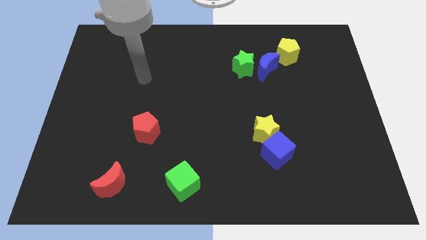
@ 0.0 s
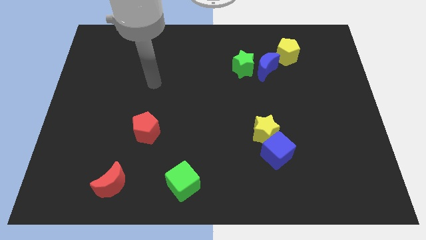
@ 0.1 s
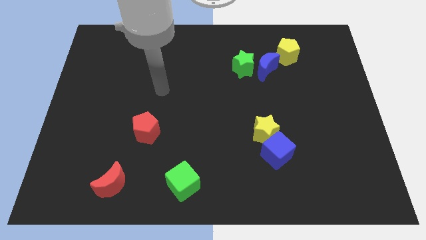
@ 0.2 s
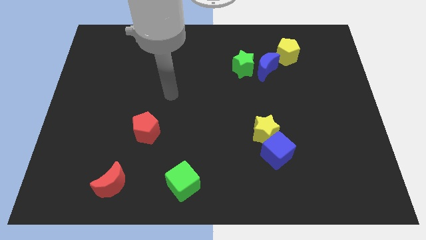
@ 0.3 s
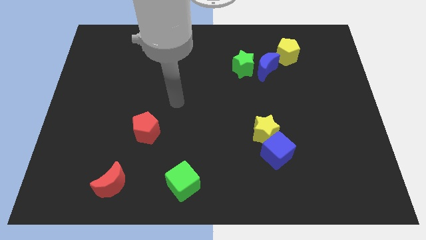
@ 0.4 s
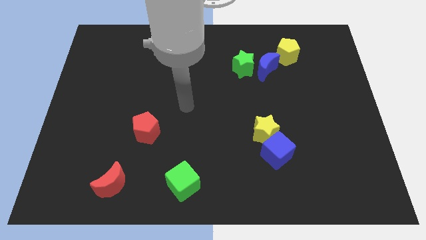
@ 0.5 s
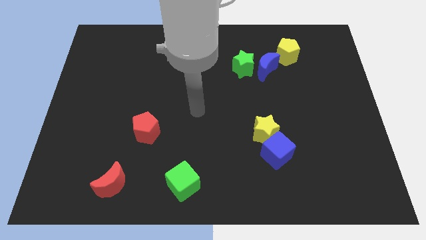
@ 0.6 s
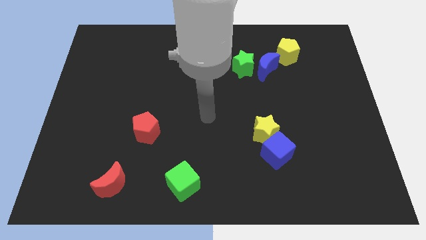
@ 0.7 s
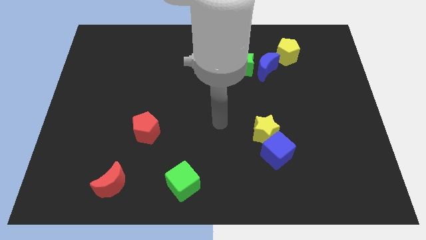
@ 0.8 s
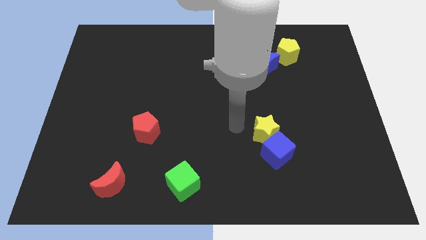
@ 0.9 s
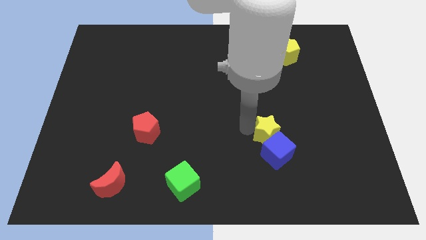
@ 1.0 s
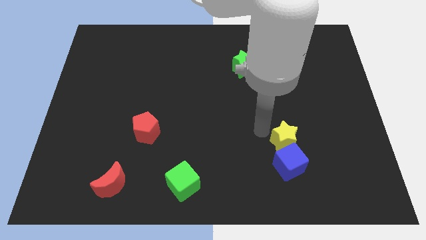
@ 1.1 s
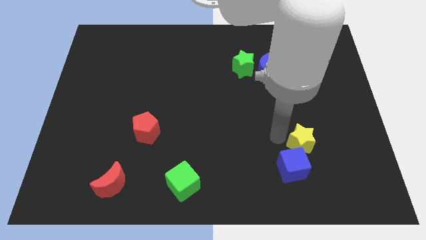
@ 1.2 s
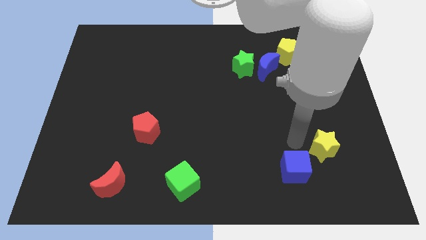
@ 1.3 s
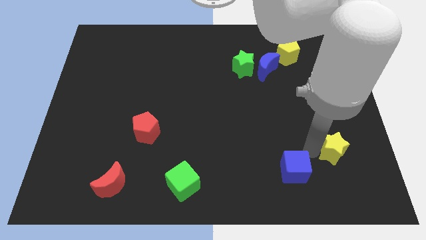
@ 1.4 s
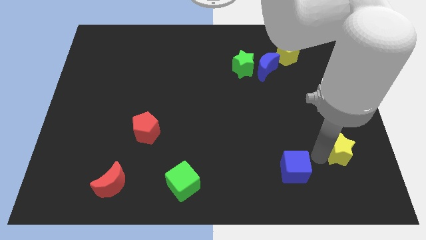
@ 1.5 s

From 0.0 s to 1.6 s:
pull the blue cube apart from the yellow star

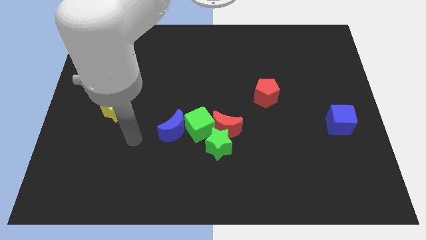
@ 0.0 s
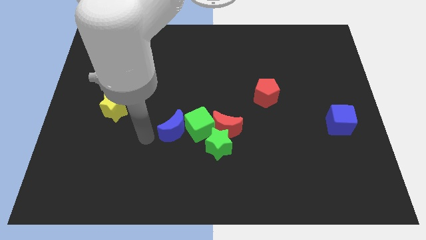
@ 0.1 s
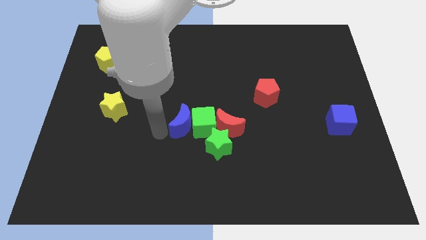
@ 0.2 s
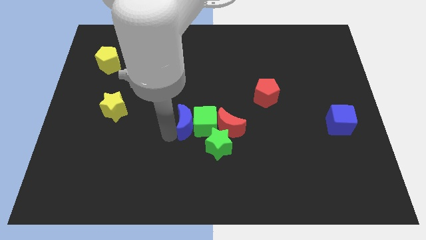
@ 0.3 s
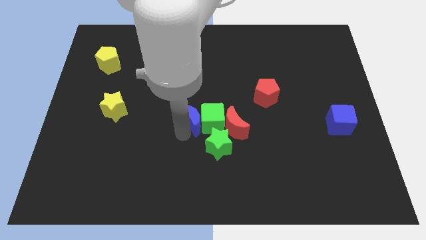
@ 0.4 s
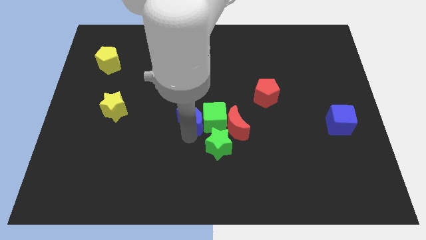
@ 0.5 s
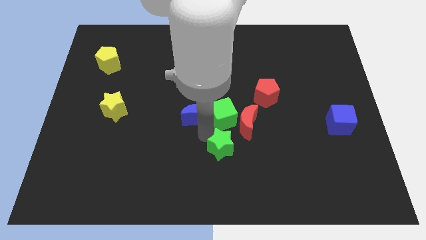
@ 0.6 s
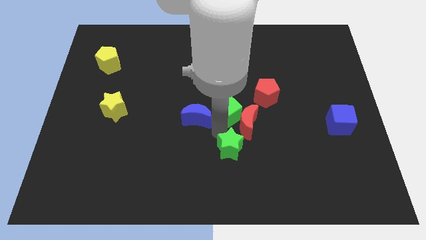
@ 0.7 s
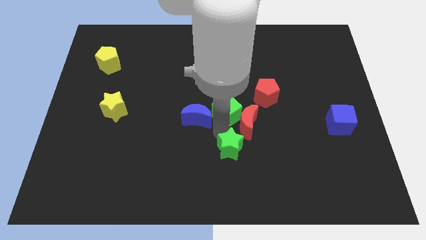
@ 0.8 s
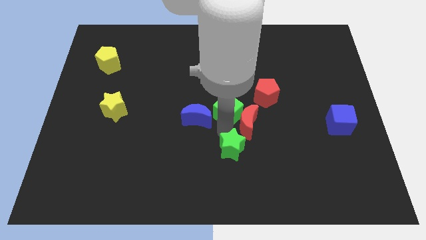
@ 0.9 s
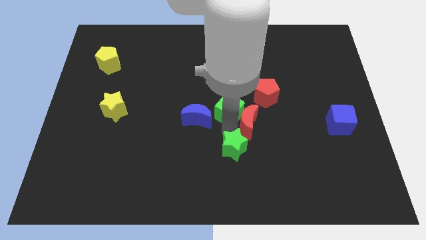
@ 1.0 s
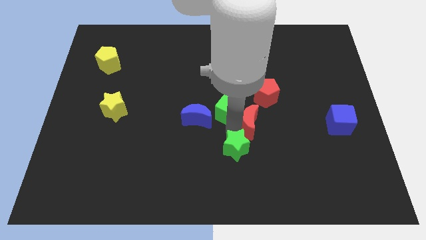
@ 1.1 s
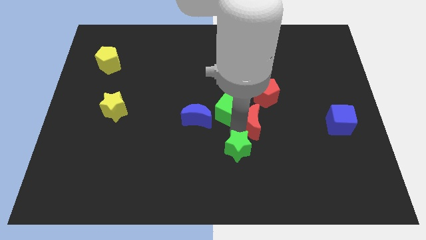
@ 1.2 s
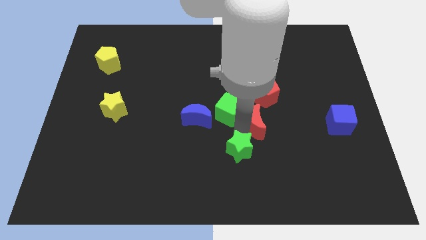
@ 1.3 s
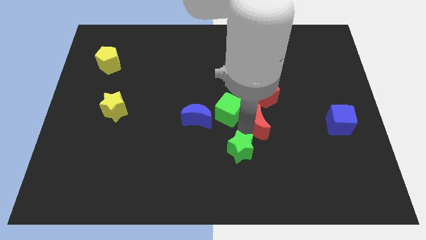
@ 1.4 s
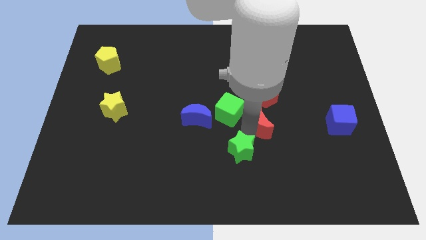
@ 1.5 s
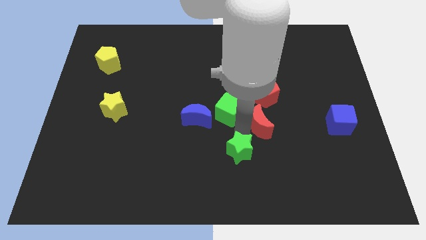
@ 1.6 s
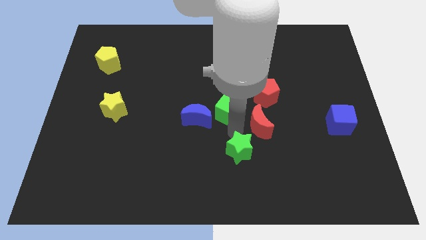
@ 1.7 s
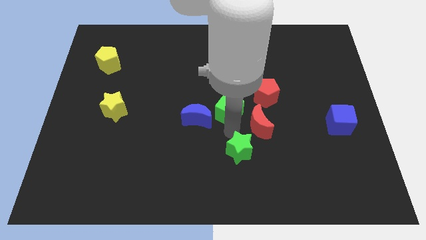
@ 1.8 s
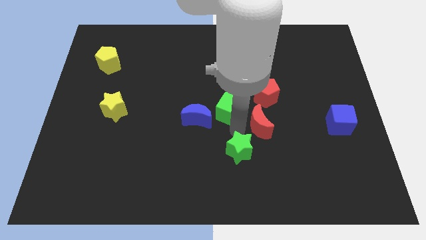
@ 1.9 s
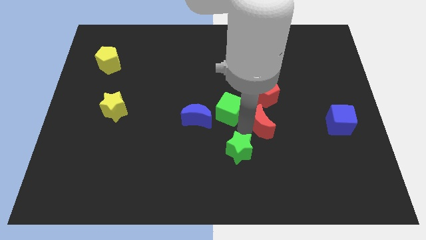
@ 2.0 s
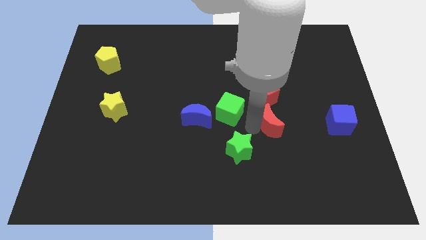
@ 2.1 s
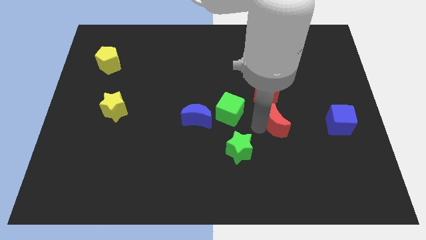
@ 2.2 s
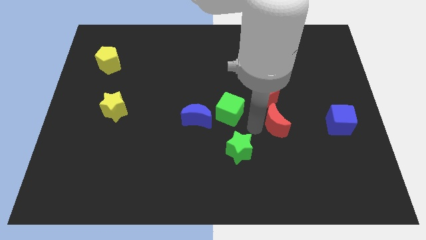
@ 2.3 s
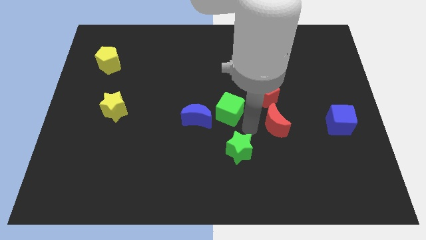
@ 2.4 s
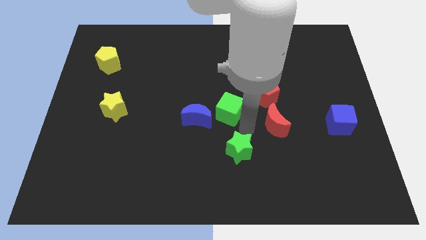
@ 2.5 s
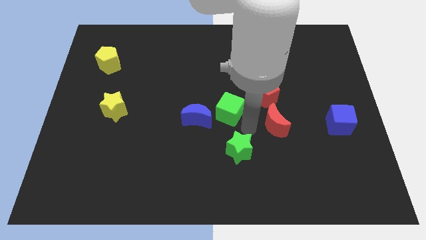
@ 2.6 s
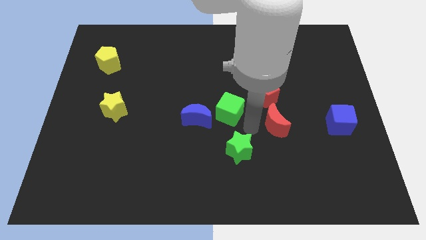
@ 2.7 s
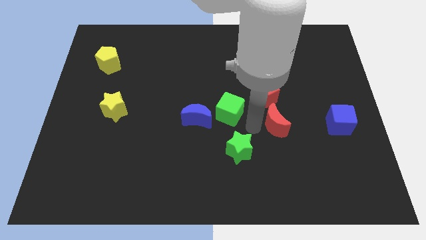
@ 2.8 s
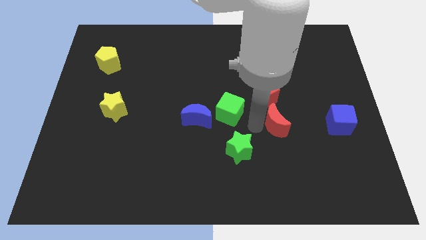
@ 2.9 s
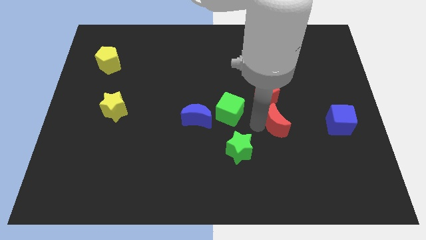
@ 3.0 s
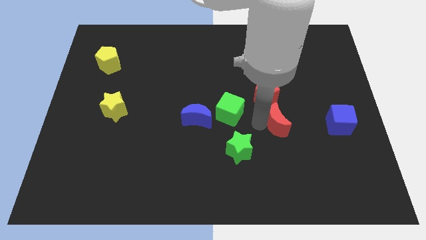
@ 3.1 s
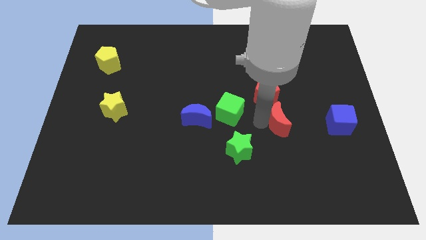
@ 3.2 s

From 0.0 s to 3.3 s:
move the red moon away from the green star and green cube

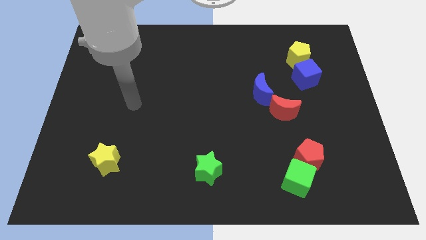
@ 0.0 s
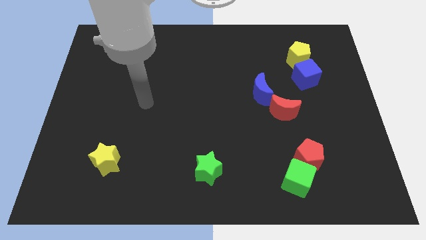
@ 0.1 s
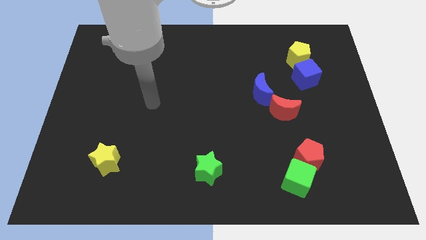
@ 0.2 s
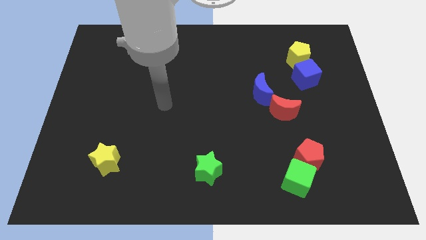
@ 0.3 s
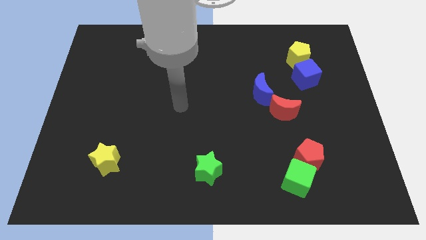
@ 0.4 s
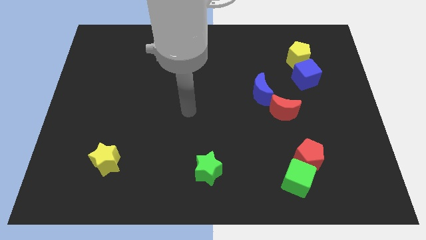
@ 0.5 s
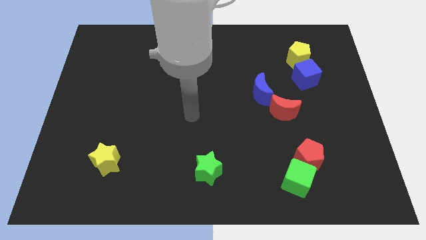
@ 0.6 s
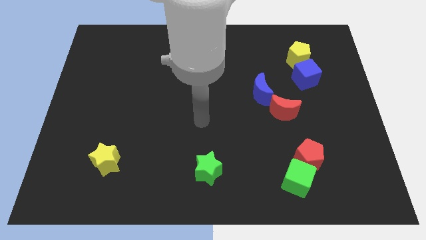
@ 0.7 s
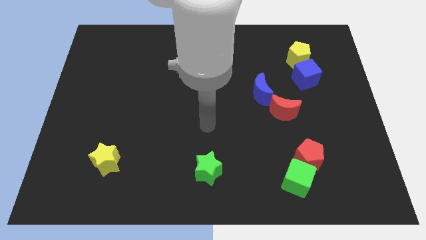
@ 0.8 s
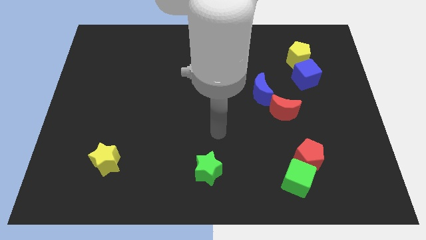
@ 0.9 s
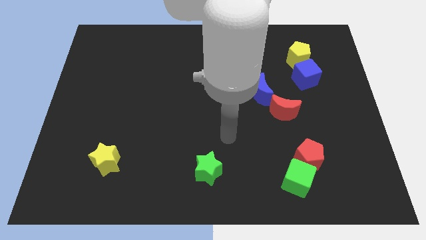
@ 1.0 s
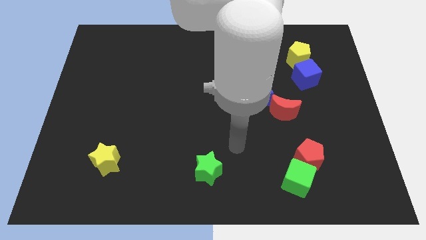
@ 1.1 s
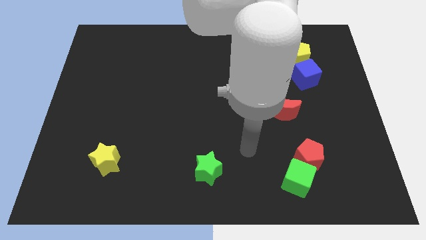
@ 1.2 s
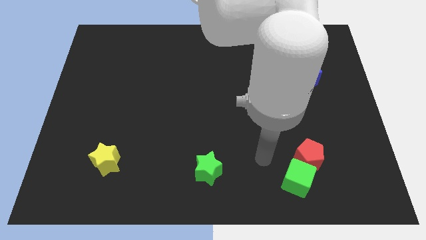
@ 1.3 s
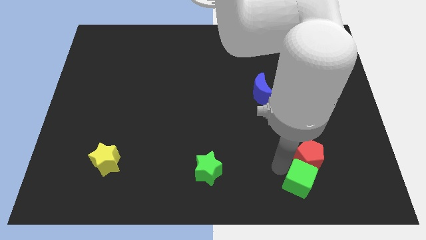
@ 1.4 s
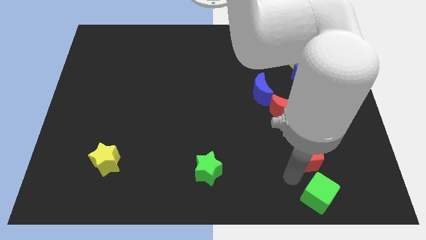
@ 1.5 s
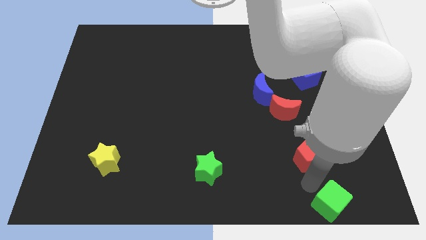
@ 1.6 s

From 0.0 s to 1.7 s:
separate the red pentagon from the green cube

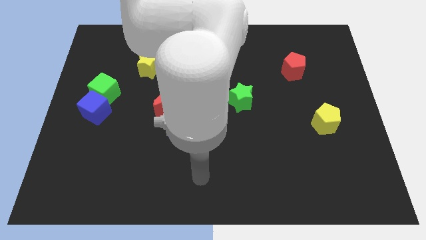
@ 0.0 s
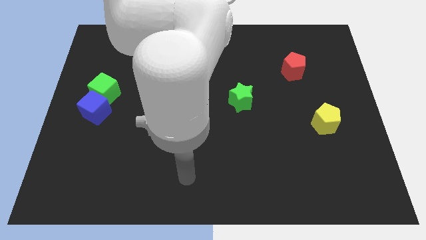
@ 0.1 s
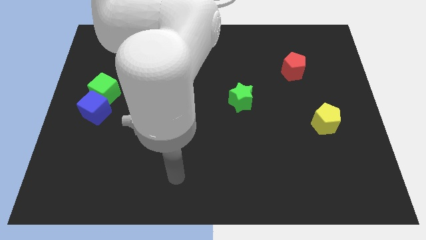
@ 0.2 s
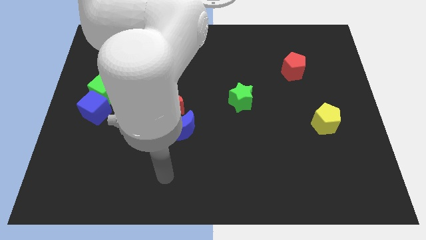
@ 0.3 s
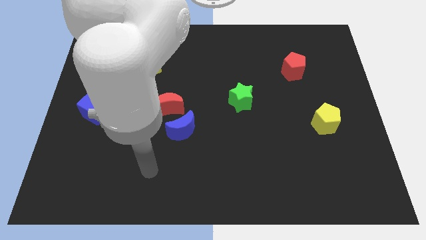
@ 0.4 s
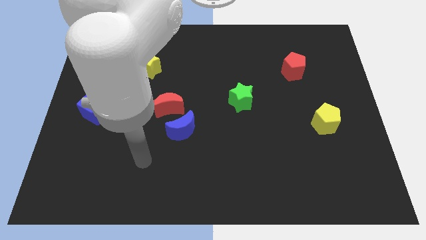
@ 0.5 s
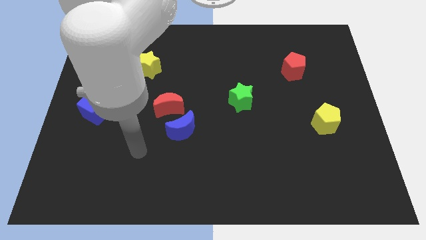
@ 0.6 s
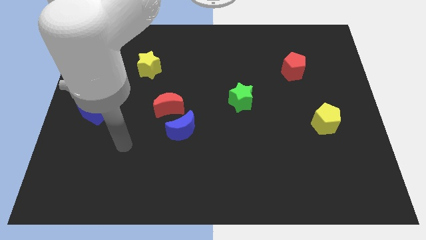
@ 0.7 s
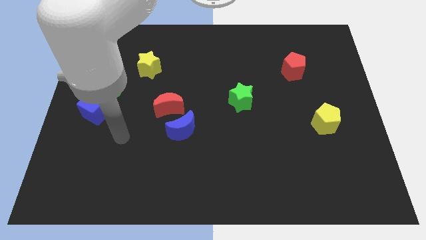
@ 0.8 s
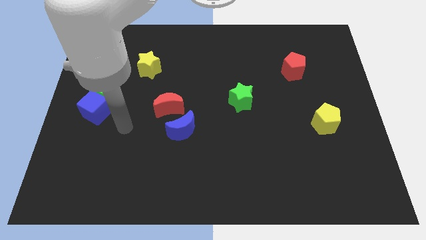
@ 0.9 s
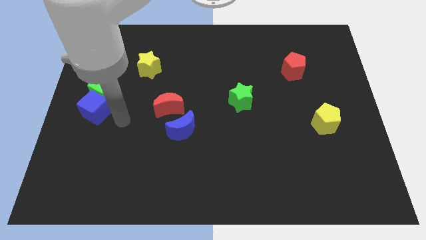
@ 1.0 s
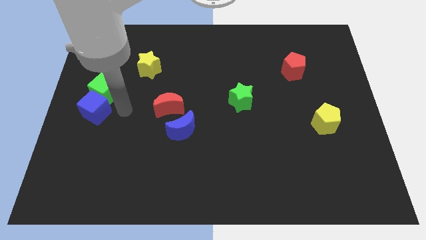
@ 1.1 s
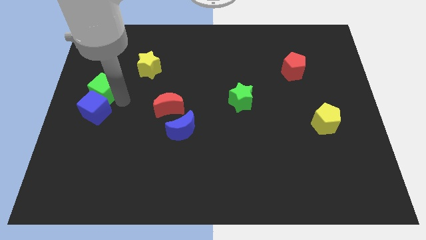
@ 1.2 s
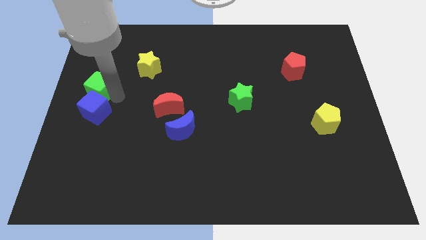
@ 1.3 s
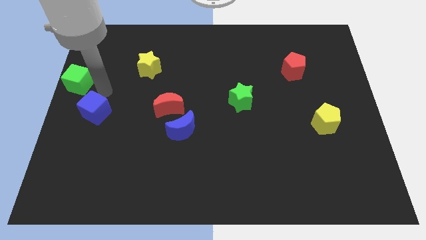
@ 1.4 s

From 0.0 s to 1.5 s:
move the blue cube away from the green cube

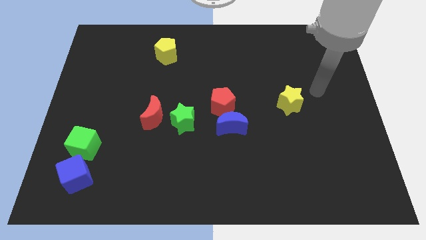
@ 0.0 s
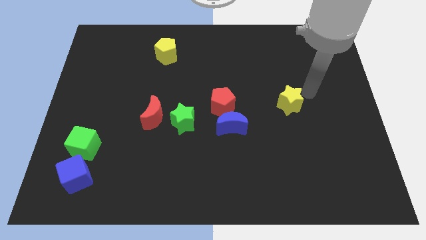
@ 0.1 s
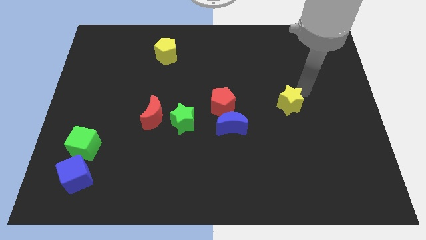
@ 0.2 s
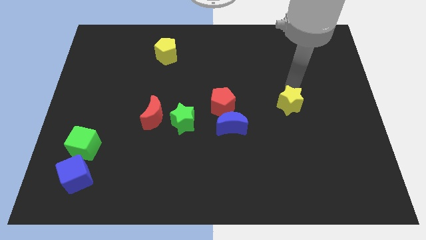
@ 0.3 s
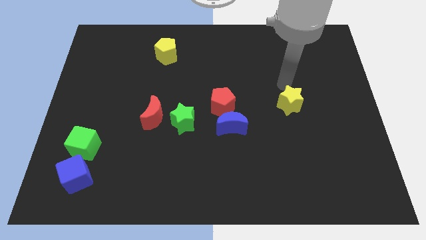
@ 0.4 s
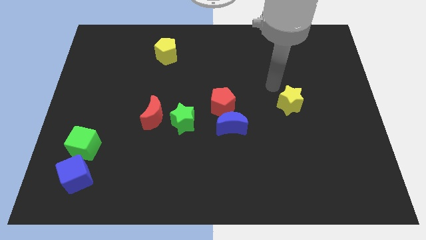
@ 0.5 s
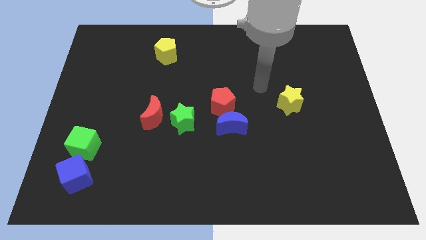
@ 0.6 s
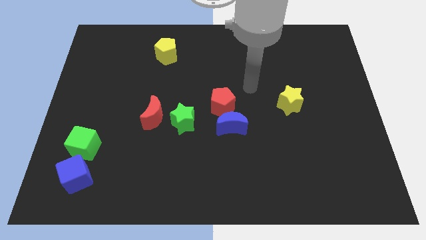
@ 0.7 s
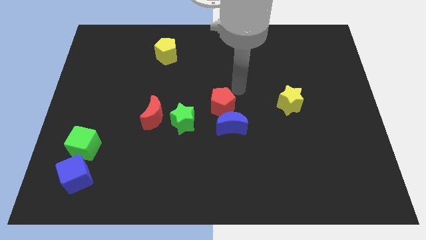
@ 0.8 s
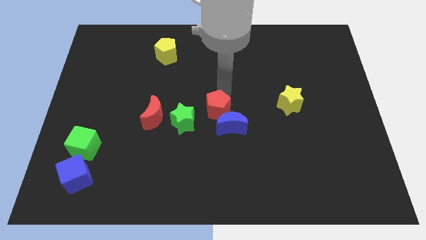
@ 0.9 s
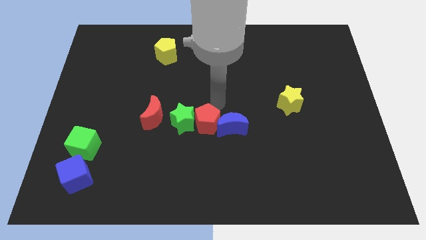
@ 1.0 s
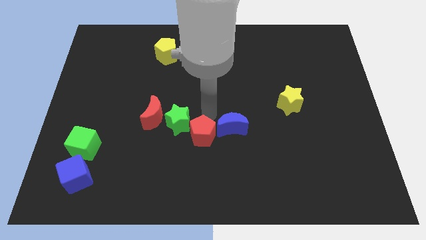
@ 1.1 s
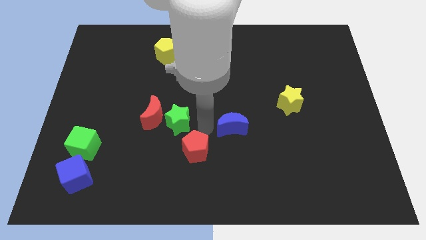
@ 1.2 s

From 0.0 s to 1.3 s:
separate the blue moon from the red pentagon

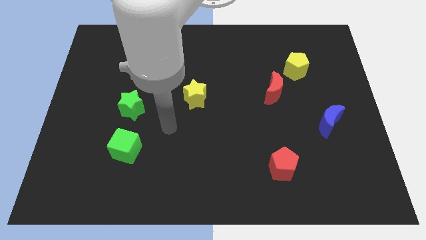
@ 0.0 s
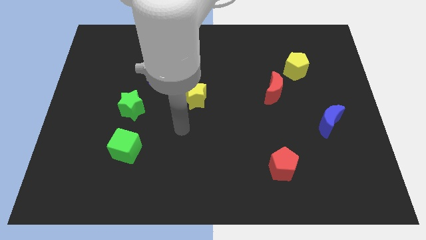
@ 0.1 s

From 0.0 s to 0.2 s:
pull the red moon apart from the yellow pentagon
